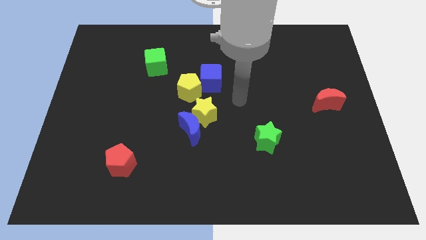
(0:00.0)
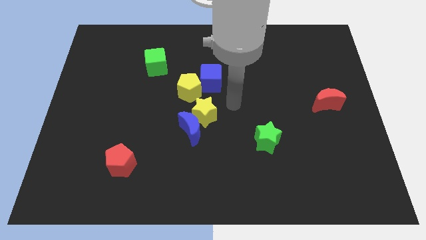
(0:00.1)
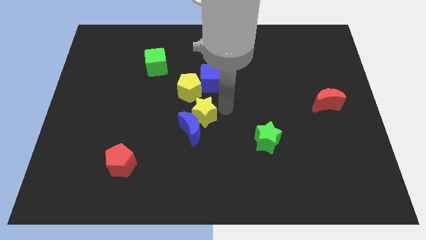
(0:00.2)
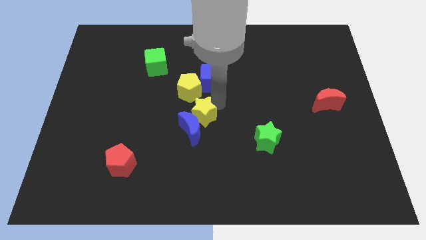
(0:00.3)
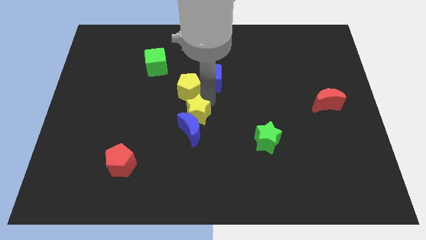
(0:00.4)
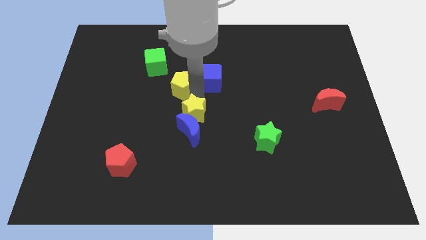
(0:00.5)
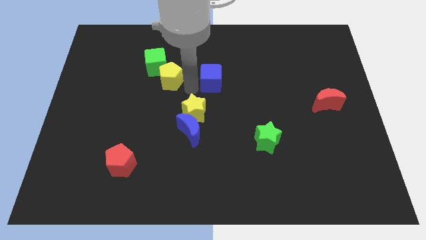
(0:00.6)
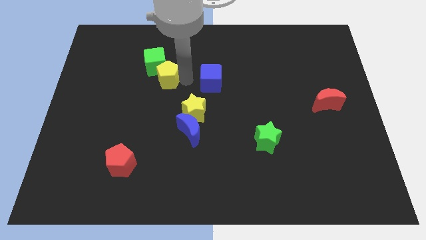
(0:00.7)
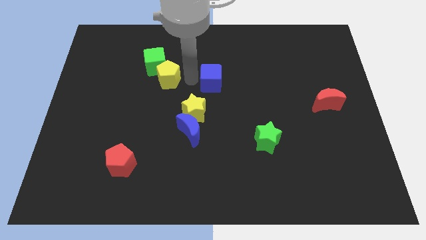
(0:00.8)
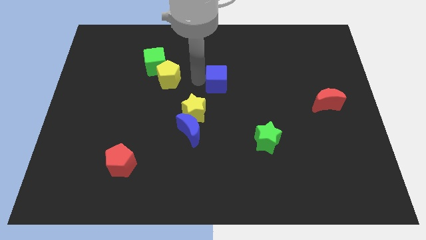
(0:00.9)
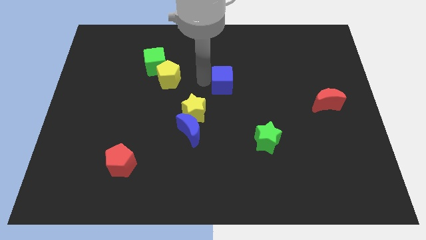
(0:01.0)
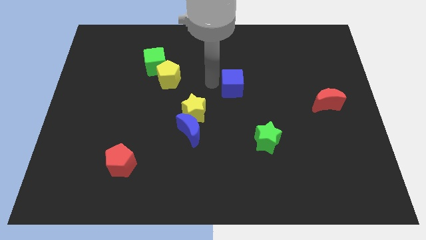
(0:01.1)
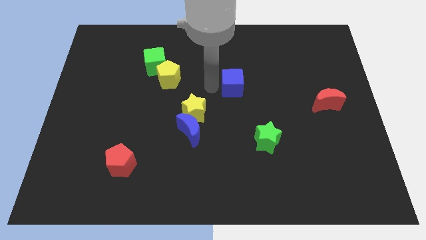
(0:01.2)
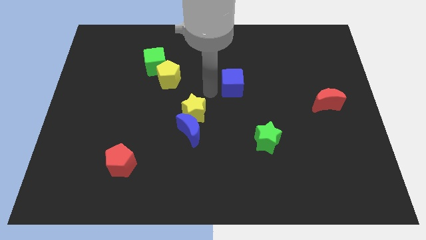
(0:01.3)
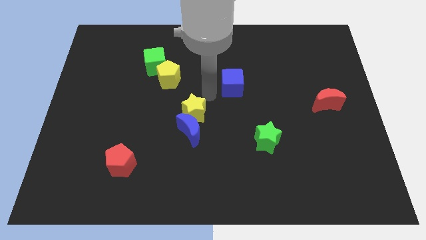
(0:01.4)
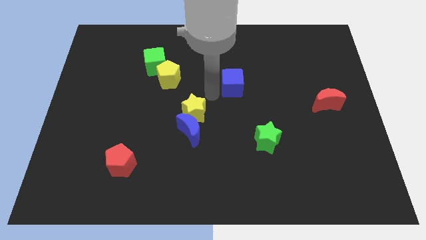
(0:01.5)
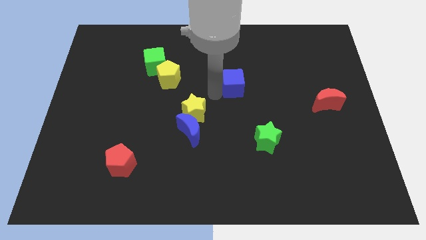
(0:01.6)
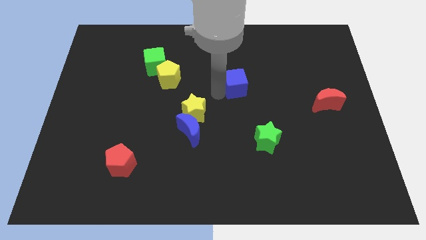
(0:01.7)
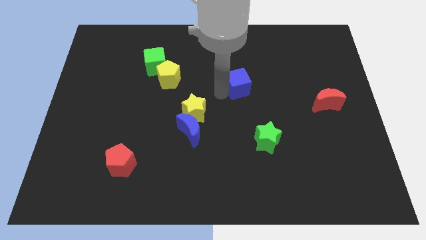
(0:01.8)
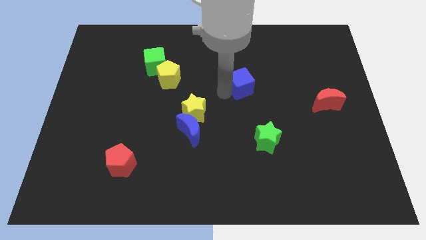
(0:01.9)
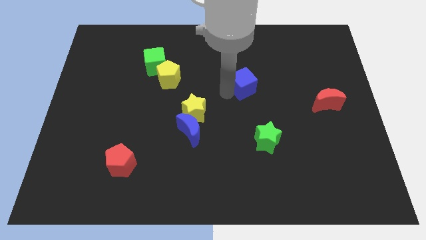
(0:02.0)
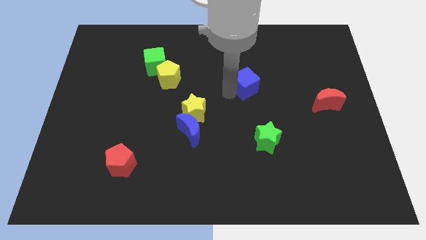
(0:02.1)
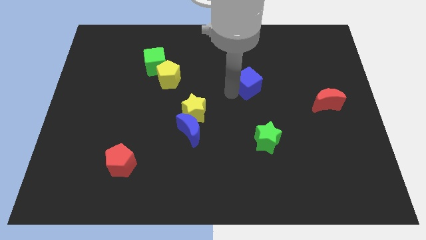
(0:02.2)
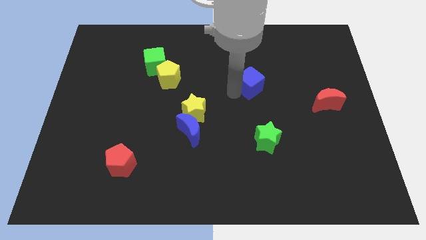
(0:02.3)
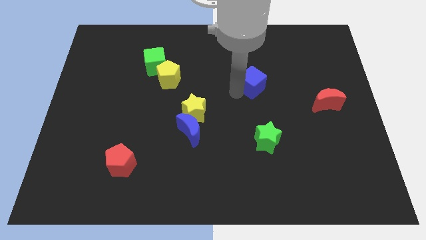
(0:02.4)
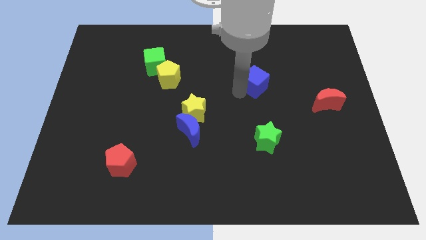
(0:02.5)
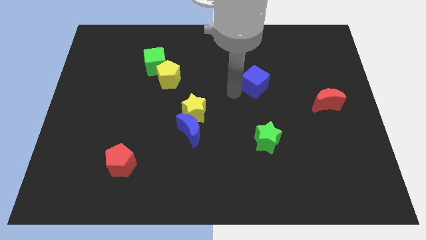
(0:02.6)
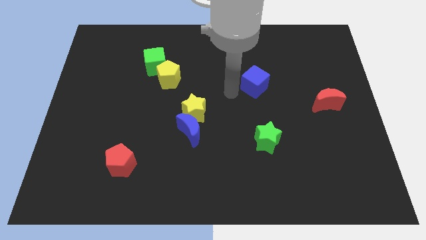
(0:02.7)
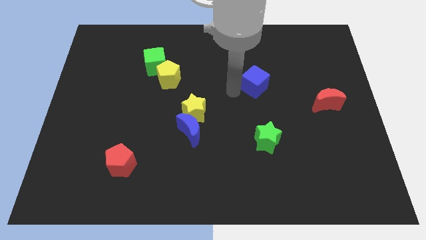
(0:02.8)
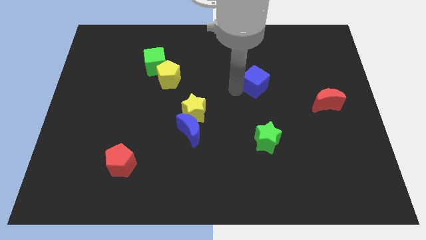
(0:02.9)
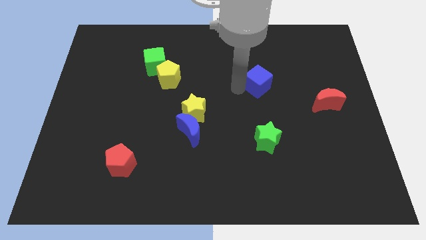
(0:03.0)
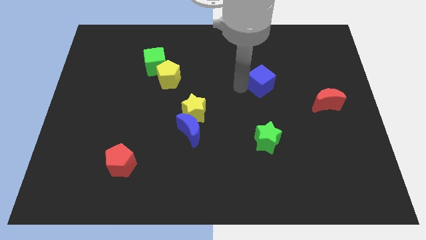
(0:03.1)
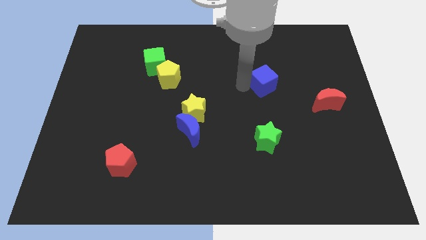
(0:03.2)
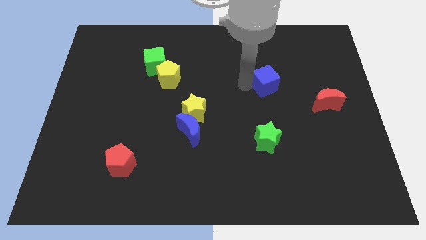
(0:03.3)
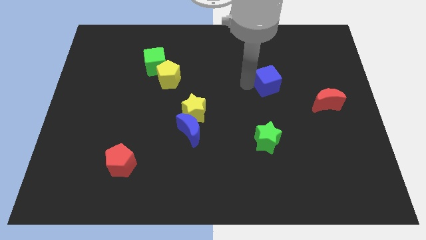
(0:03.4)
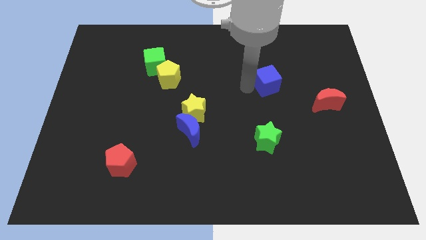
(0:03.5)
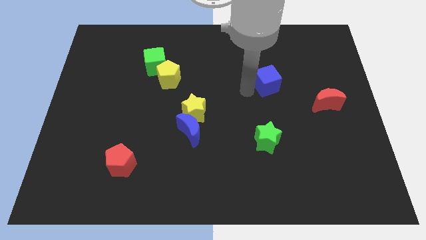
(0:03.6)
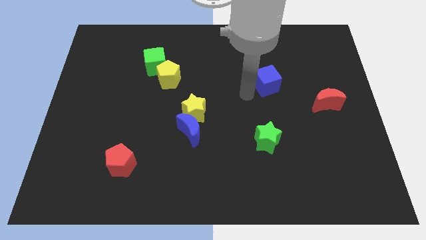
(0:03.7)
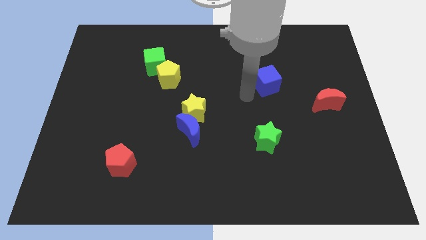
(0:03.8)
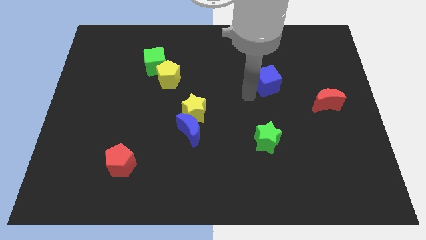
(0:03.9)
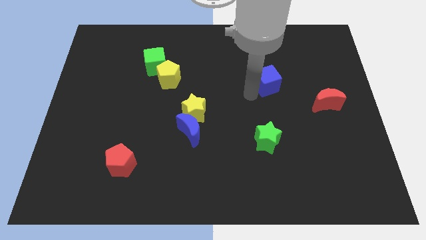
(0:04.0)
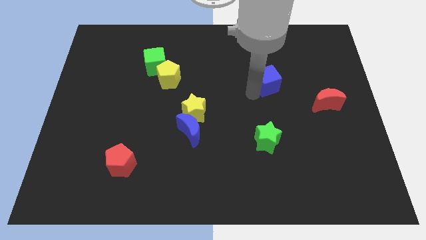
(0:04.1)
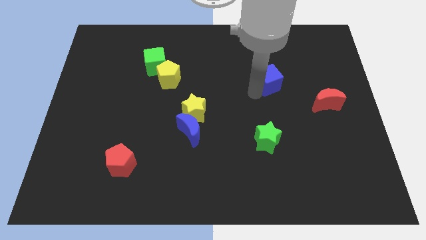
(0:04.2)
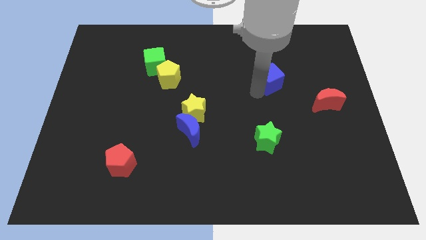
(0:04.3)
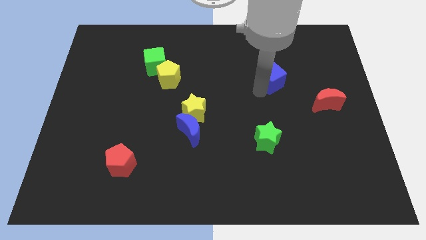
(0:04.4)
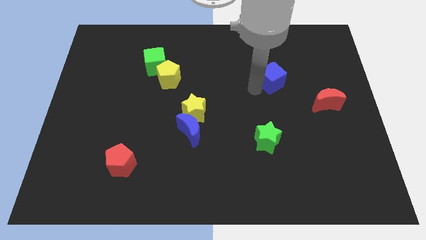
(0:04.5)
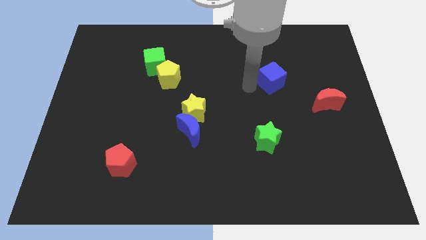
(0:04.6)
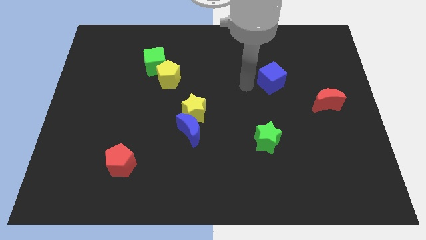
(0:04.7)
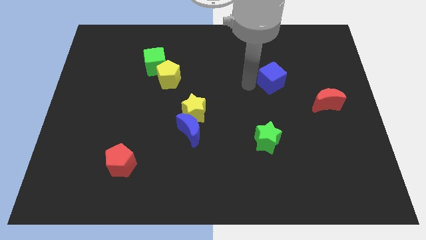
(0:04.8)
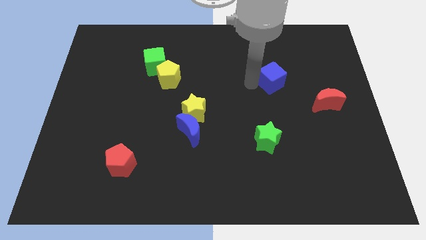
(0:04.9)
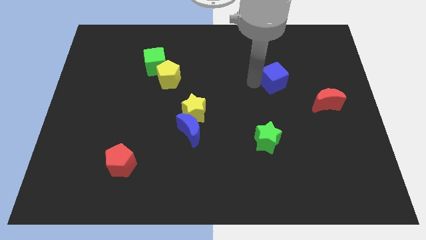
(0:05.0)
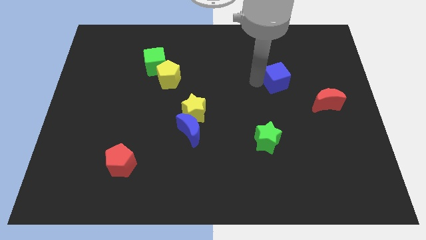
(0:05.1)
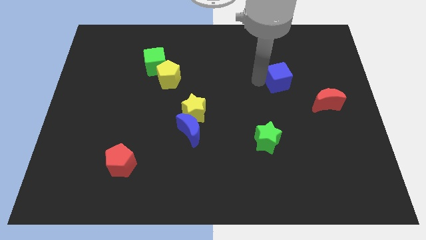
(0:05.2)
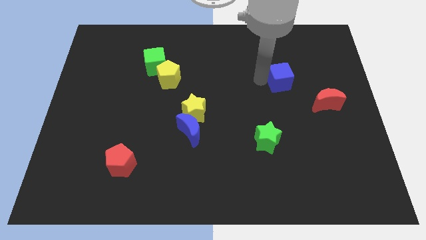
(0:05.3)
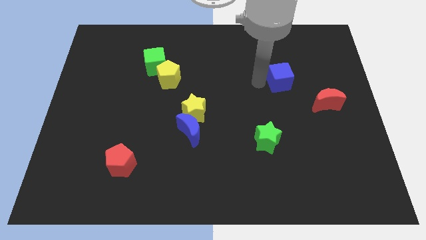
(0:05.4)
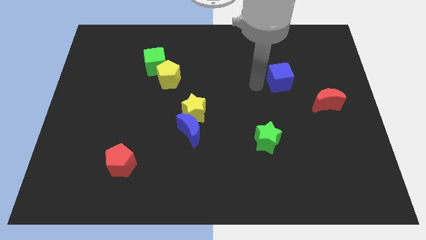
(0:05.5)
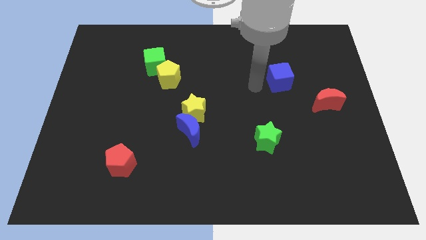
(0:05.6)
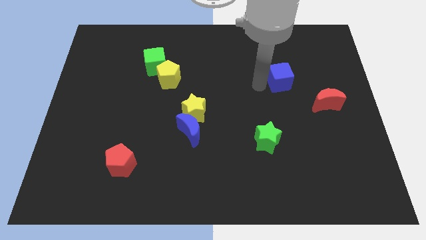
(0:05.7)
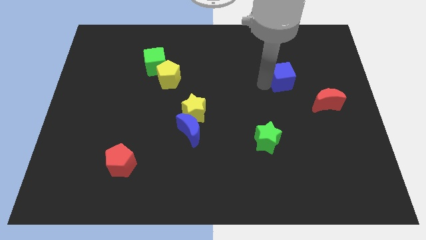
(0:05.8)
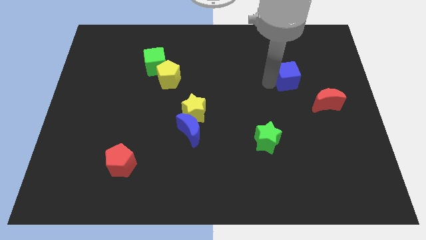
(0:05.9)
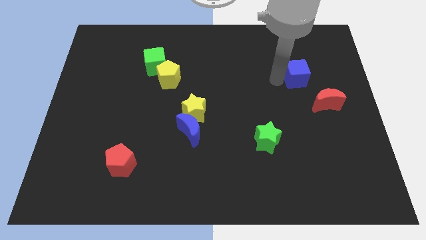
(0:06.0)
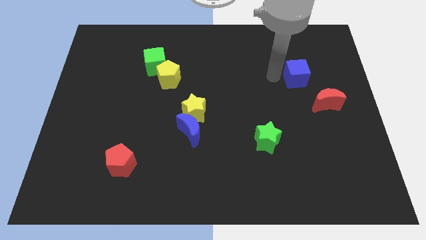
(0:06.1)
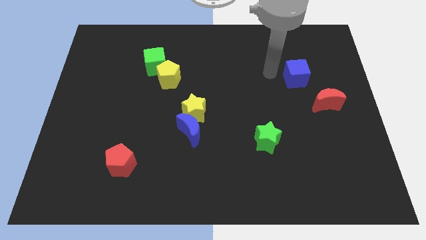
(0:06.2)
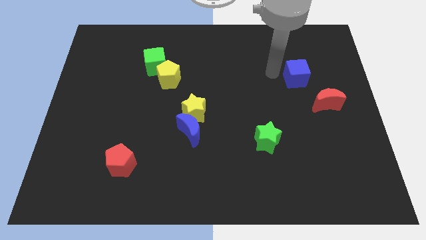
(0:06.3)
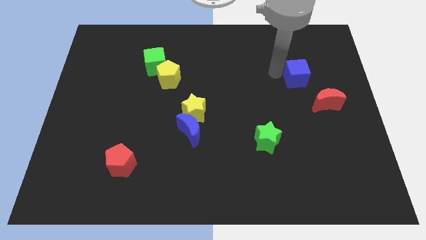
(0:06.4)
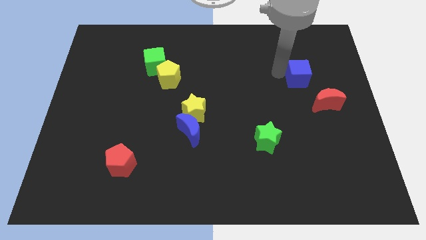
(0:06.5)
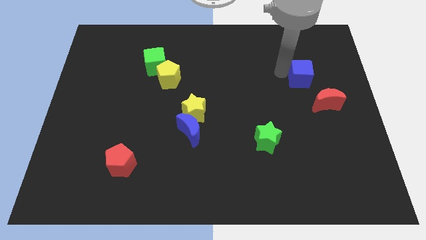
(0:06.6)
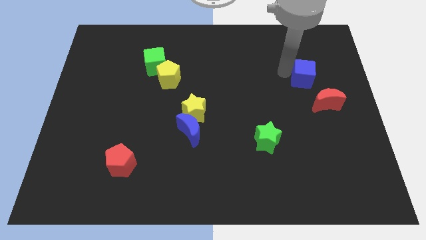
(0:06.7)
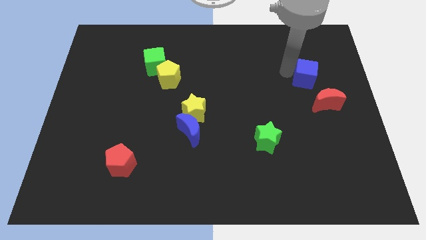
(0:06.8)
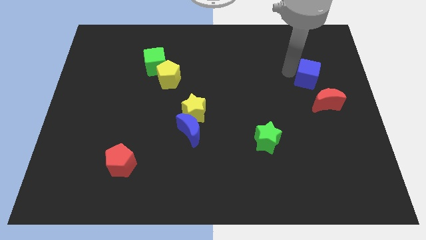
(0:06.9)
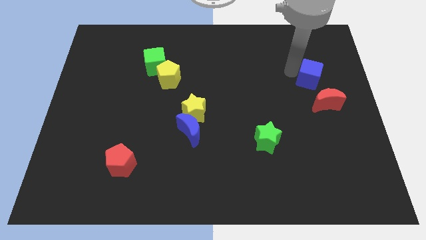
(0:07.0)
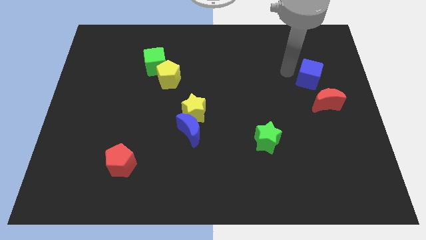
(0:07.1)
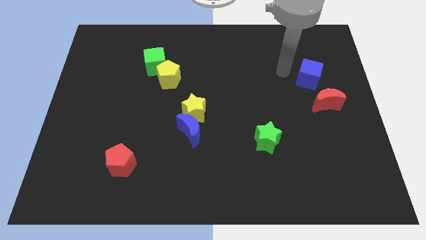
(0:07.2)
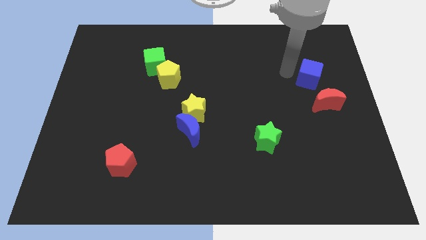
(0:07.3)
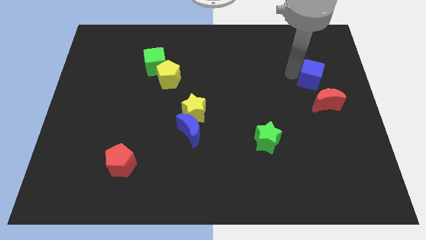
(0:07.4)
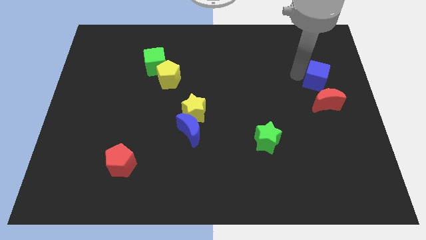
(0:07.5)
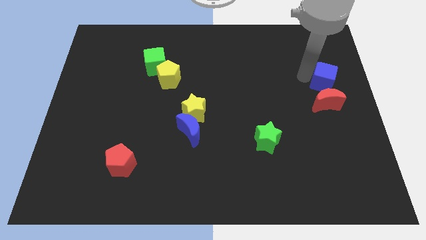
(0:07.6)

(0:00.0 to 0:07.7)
move the blue cube to the center right
